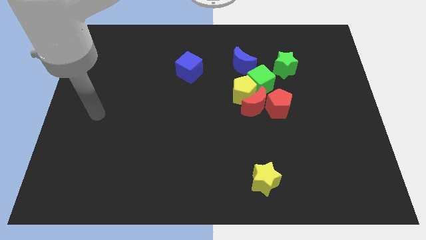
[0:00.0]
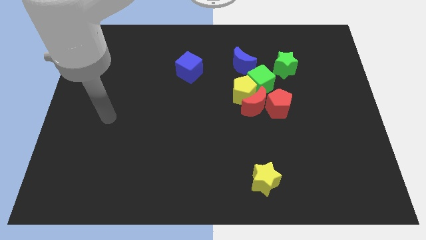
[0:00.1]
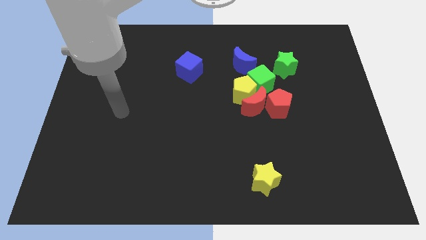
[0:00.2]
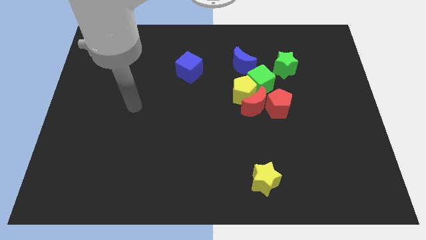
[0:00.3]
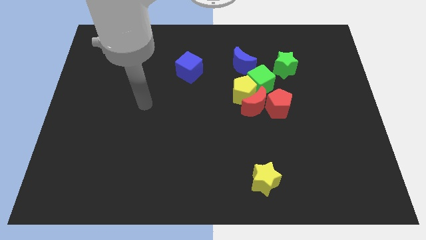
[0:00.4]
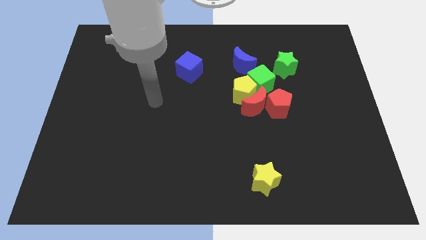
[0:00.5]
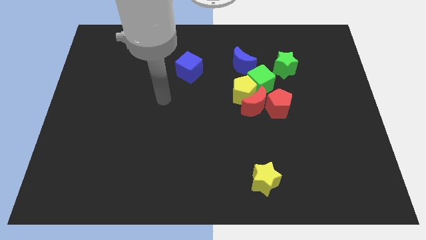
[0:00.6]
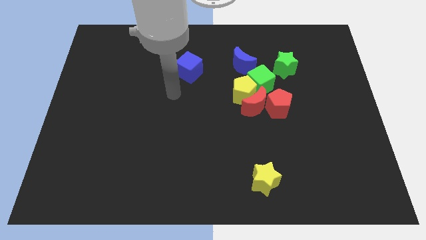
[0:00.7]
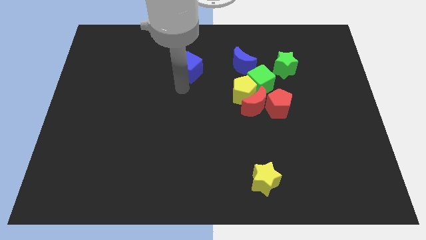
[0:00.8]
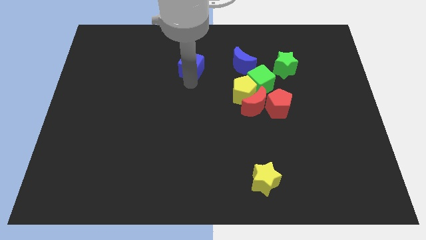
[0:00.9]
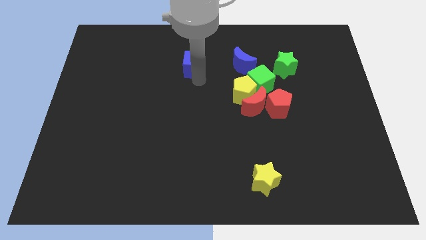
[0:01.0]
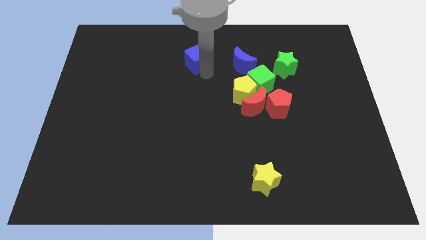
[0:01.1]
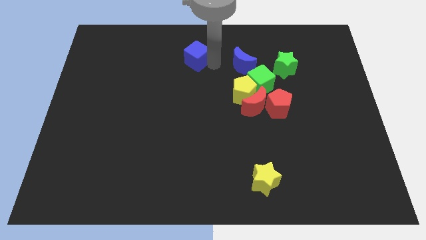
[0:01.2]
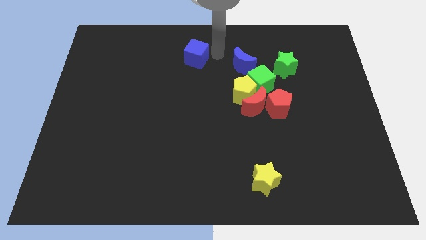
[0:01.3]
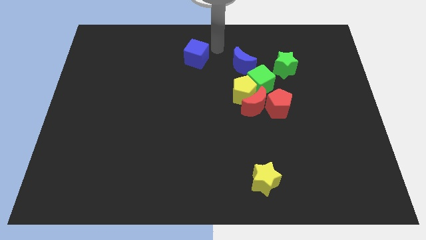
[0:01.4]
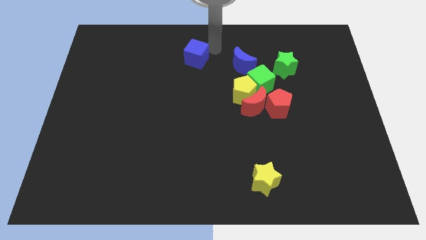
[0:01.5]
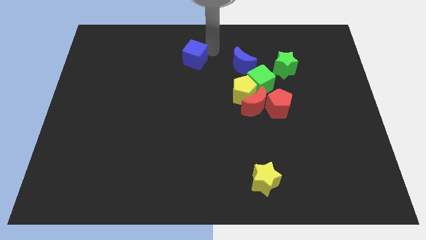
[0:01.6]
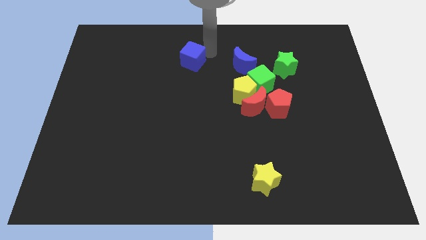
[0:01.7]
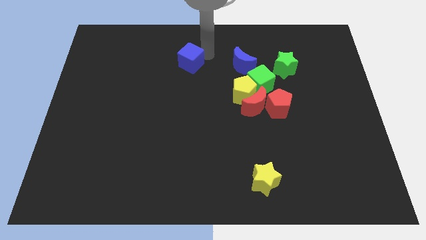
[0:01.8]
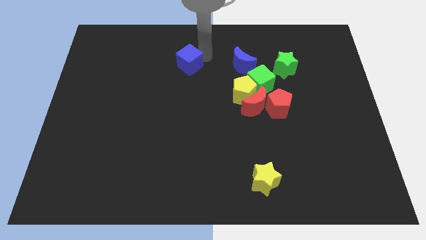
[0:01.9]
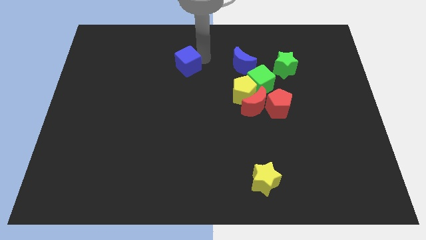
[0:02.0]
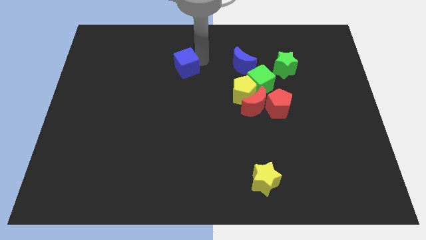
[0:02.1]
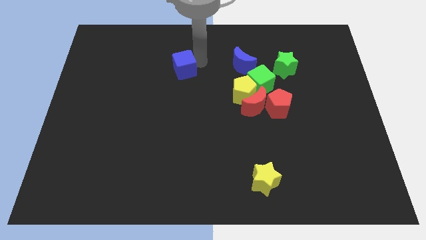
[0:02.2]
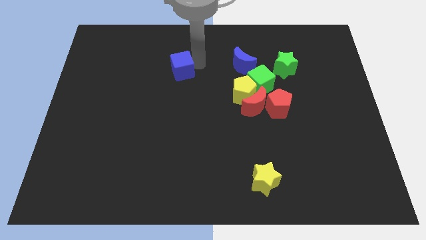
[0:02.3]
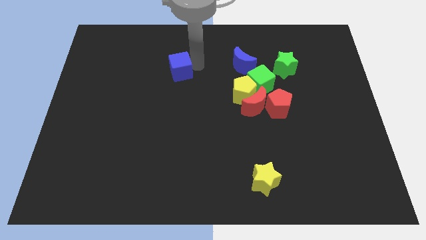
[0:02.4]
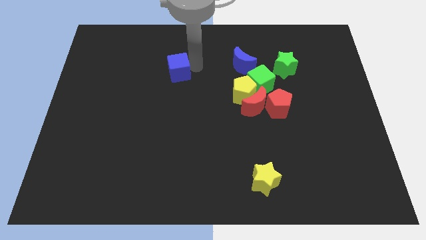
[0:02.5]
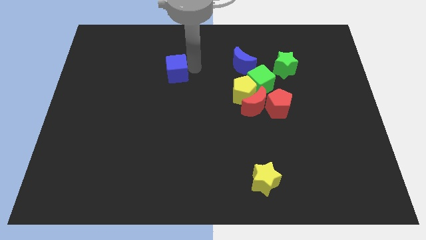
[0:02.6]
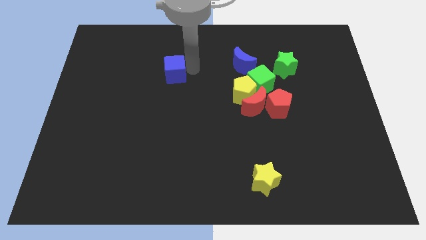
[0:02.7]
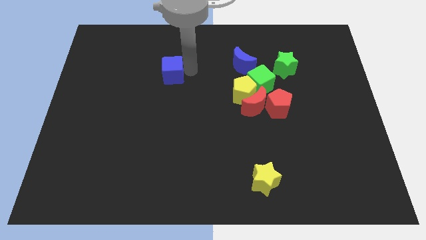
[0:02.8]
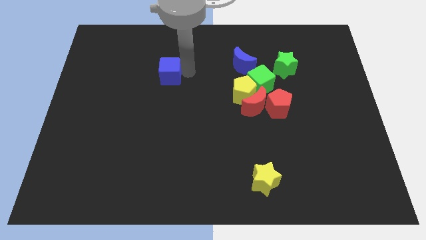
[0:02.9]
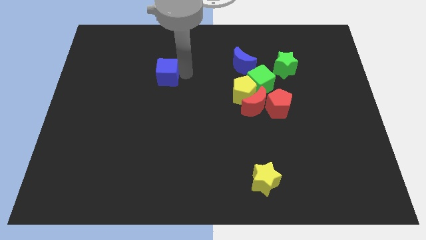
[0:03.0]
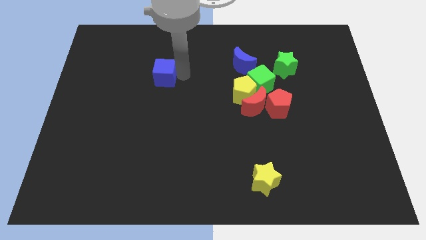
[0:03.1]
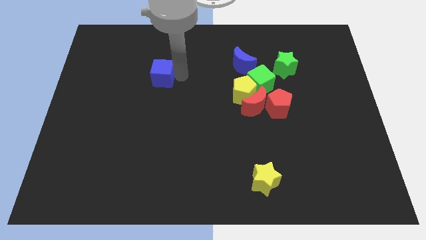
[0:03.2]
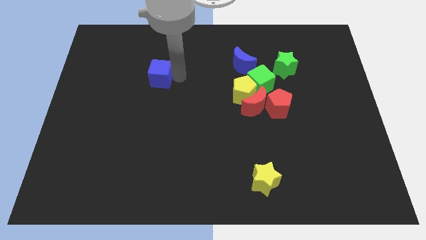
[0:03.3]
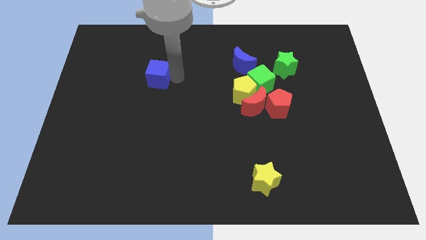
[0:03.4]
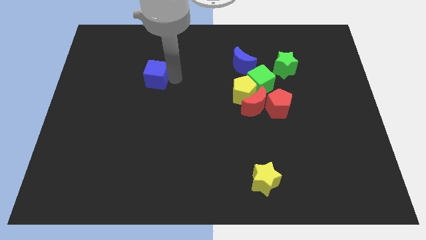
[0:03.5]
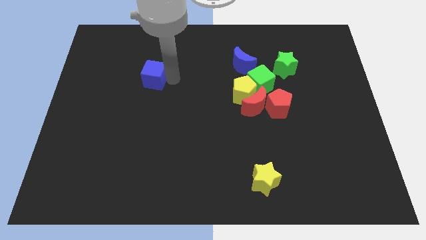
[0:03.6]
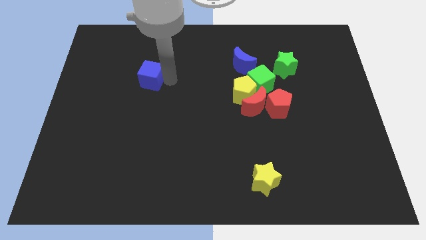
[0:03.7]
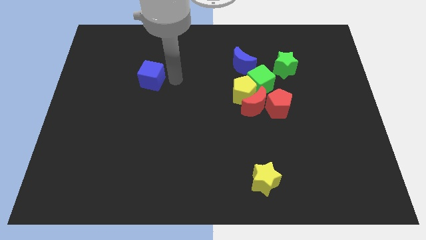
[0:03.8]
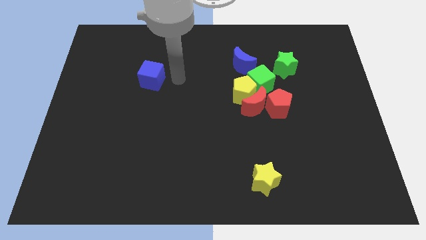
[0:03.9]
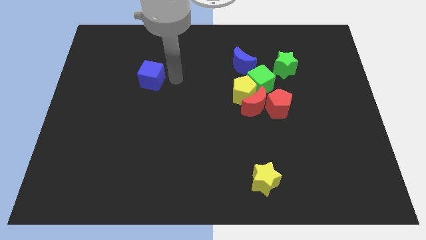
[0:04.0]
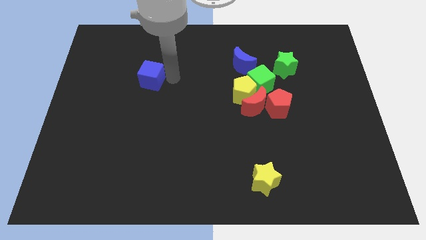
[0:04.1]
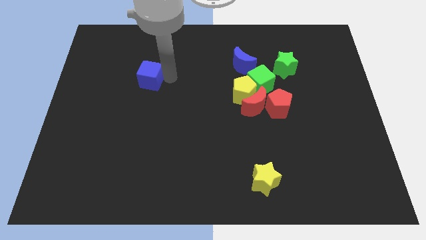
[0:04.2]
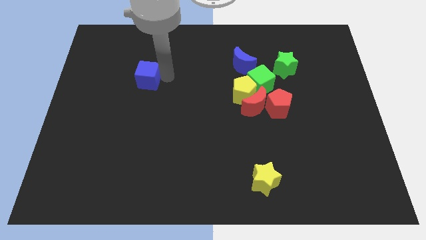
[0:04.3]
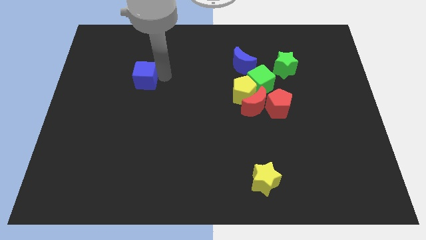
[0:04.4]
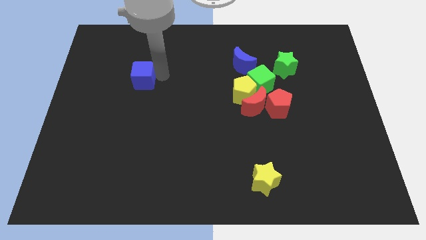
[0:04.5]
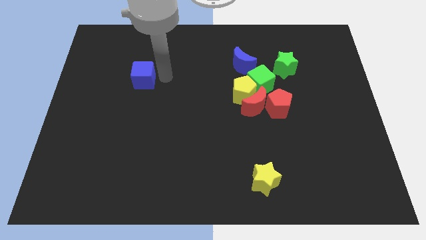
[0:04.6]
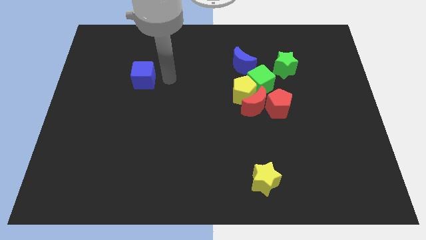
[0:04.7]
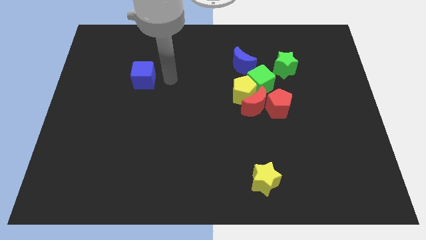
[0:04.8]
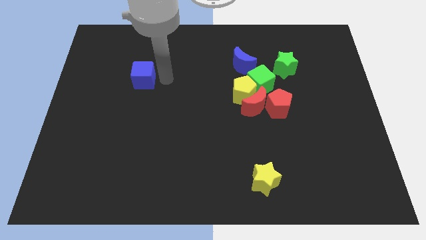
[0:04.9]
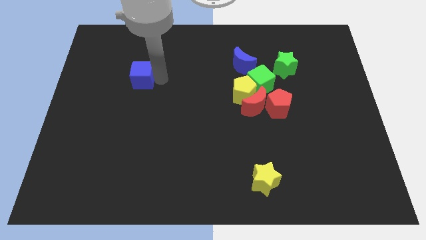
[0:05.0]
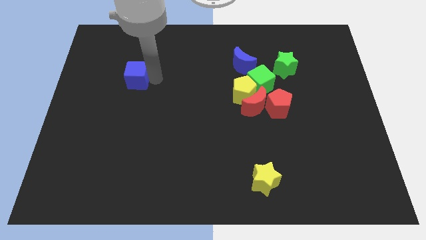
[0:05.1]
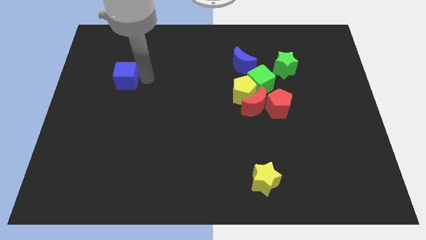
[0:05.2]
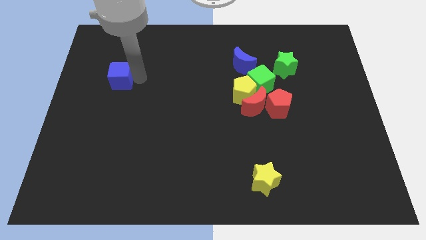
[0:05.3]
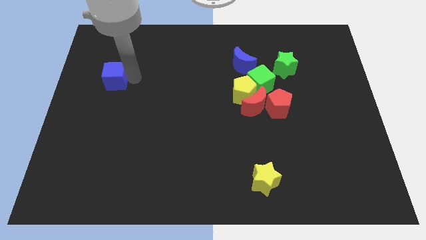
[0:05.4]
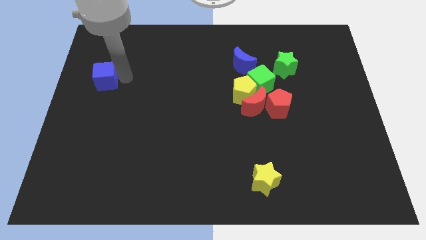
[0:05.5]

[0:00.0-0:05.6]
slide the blue cube to the center left
